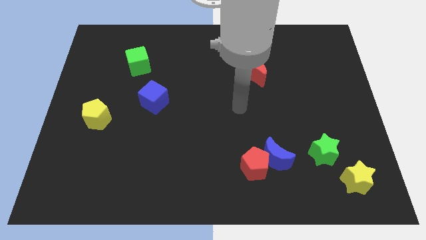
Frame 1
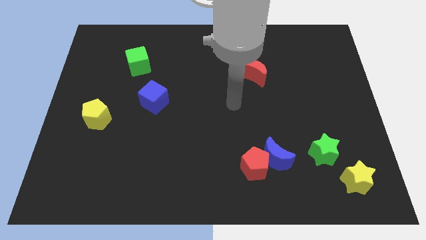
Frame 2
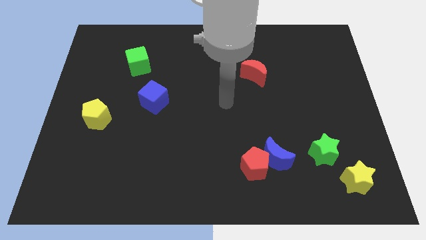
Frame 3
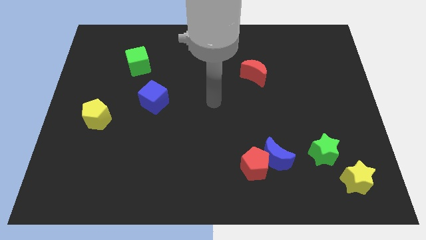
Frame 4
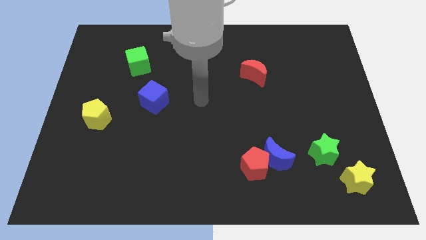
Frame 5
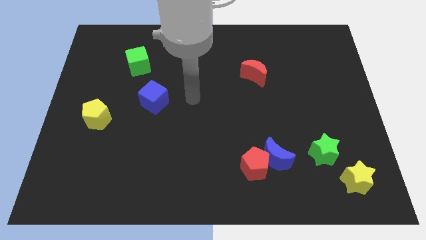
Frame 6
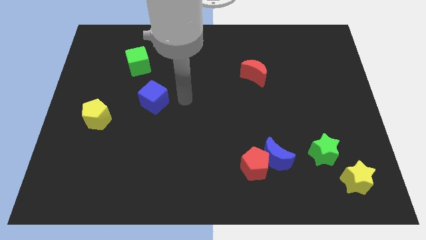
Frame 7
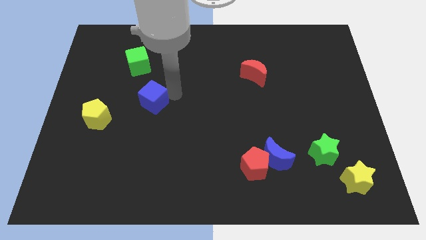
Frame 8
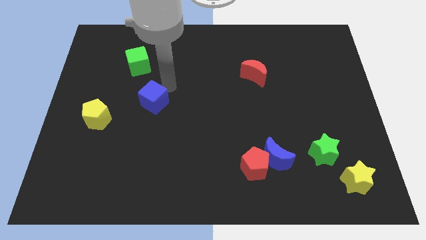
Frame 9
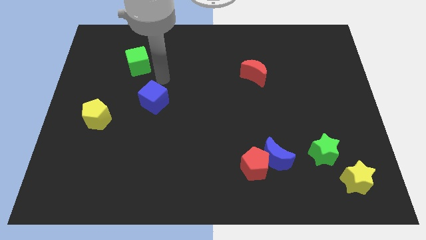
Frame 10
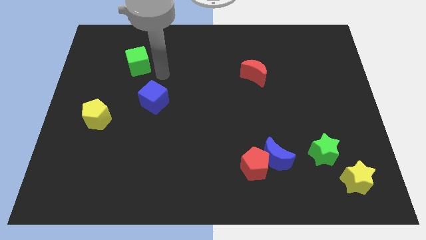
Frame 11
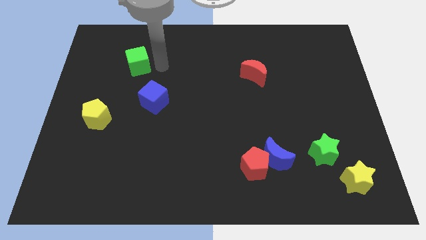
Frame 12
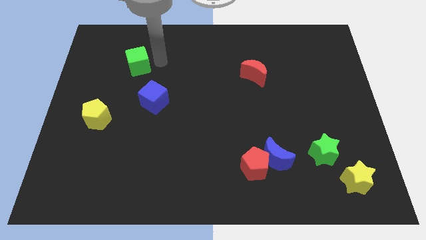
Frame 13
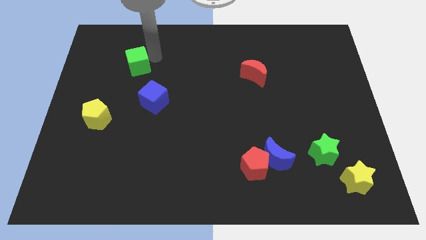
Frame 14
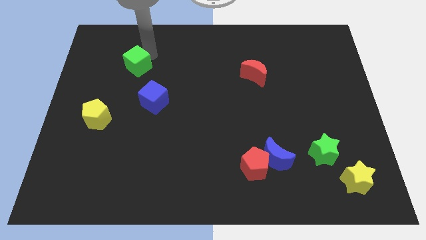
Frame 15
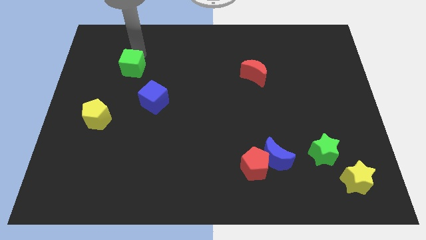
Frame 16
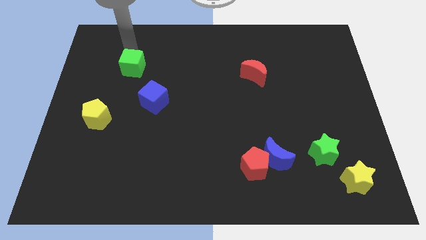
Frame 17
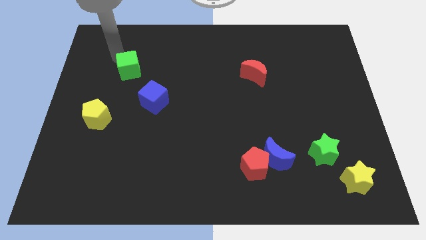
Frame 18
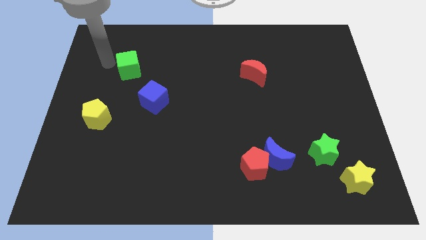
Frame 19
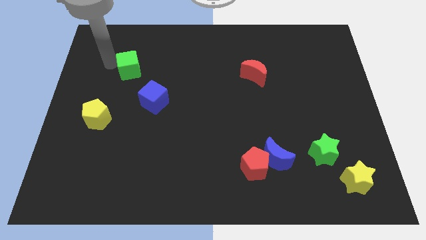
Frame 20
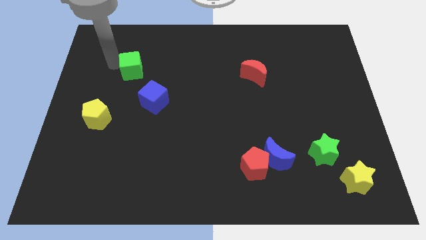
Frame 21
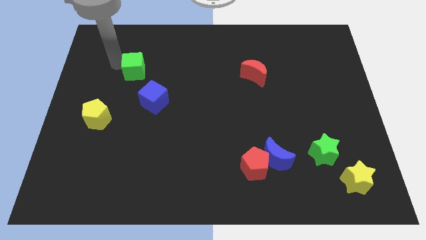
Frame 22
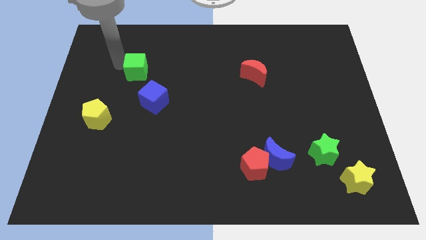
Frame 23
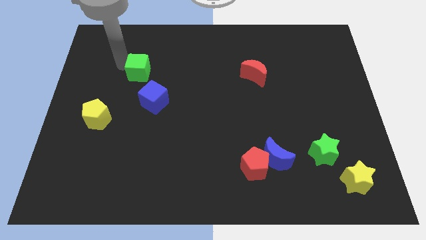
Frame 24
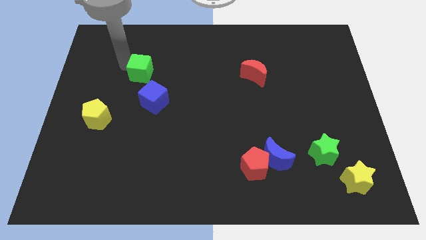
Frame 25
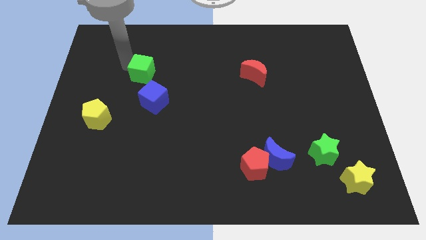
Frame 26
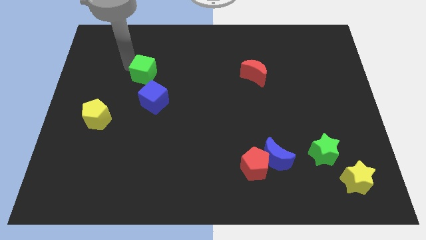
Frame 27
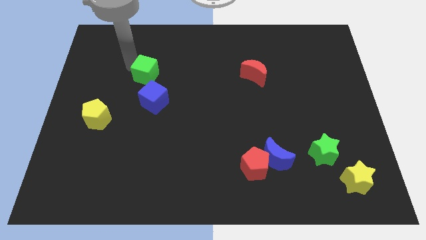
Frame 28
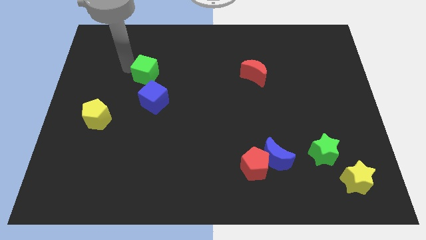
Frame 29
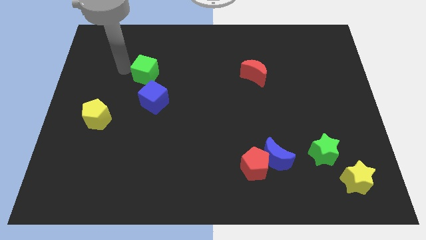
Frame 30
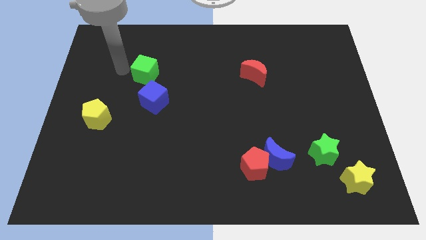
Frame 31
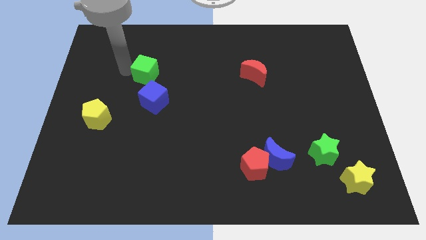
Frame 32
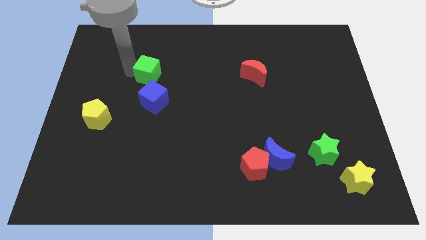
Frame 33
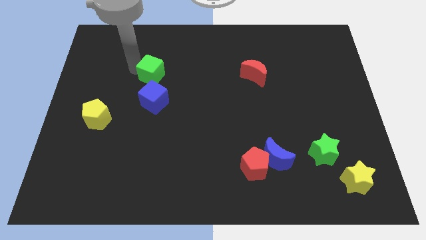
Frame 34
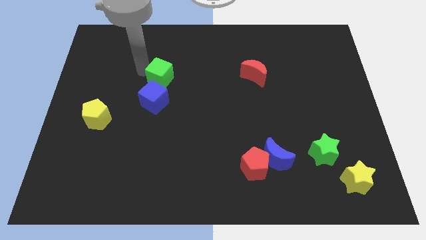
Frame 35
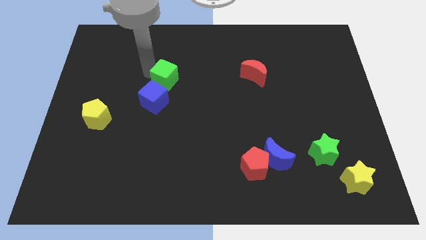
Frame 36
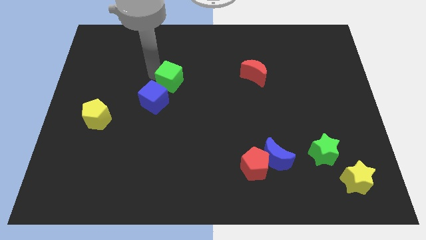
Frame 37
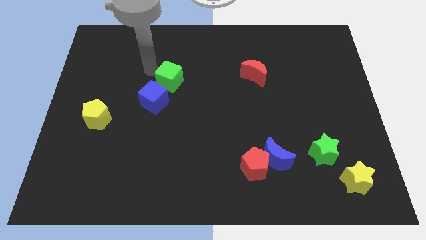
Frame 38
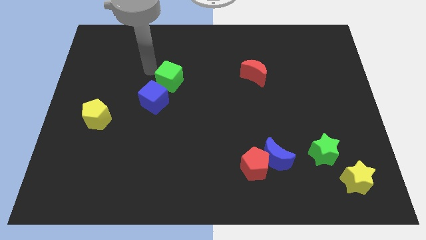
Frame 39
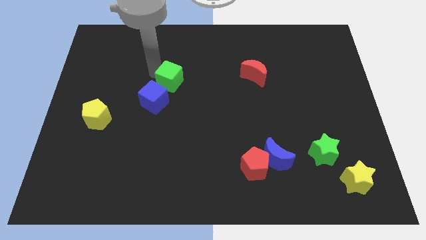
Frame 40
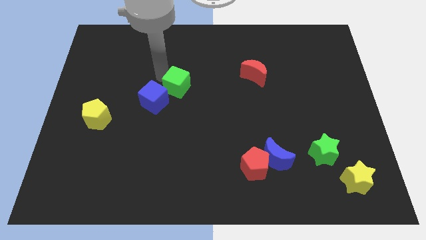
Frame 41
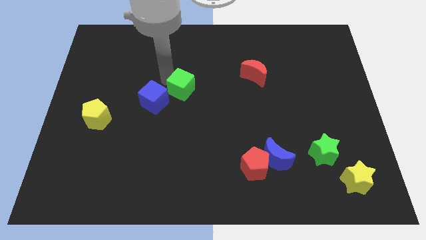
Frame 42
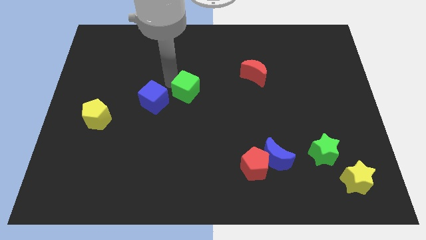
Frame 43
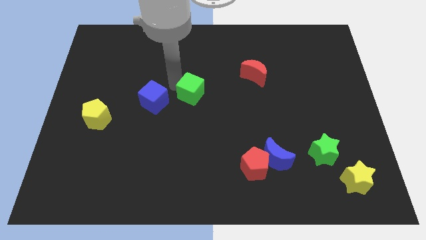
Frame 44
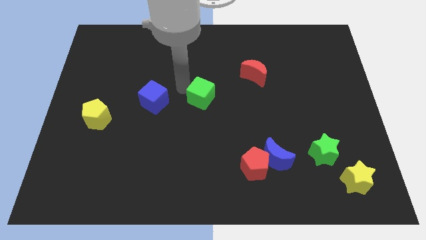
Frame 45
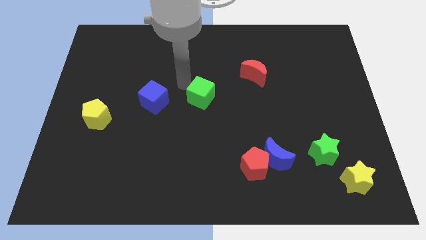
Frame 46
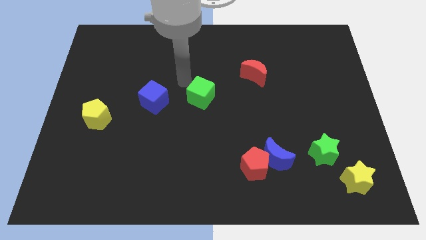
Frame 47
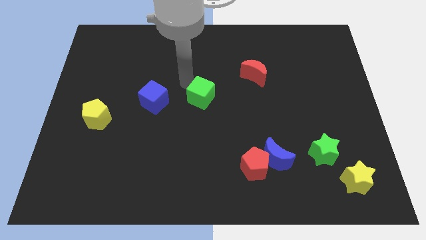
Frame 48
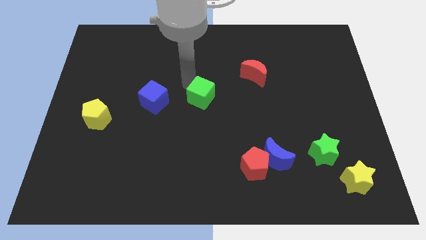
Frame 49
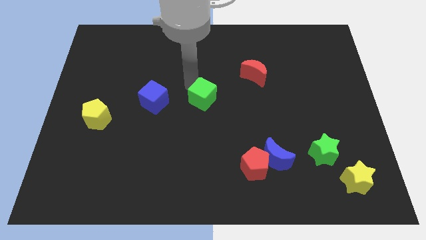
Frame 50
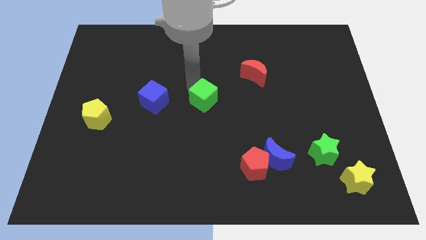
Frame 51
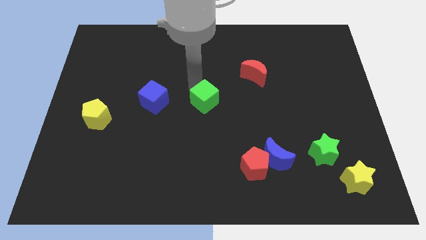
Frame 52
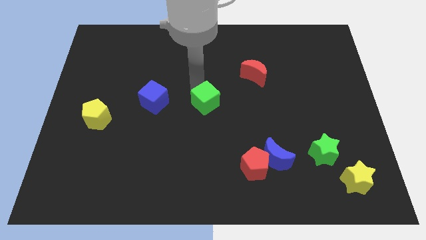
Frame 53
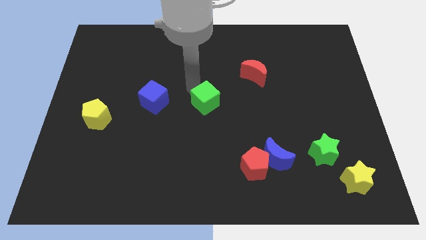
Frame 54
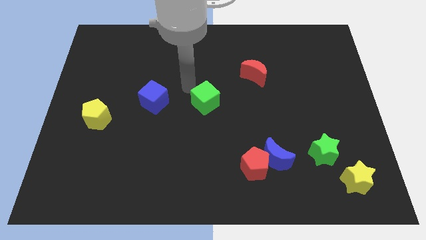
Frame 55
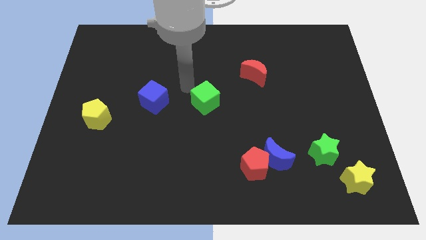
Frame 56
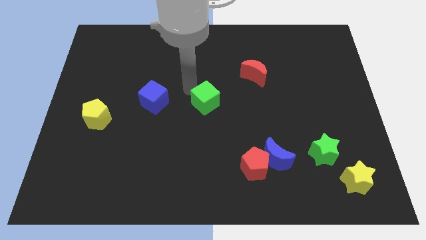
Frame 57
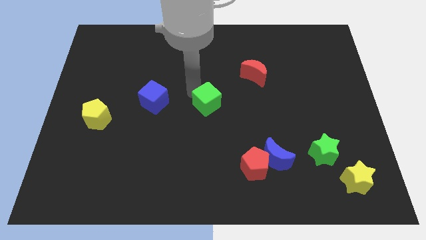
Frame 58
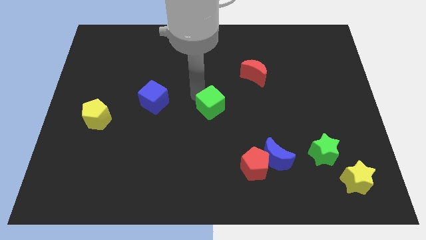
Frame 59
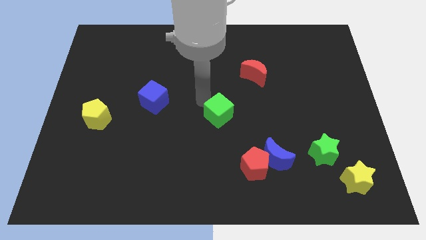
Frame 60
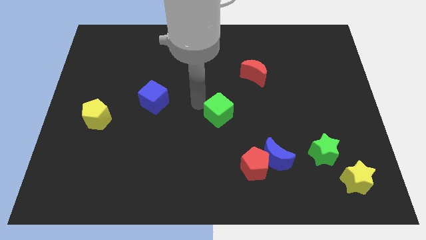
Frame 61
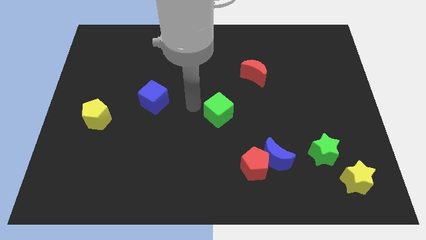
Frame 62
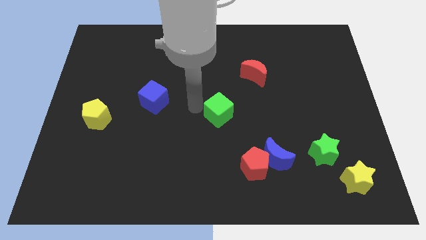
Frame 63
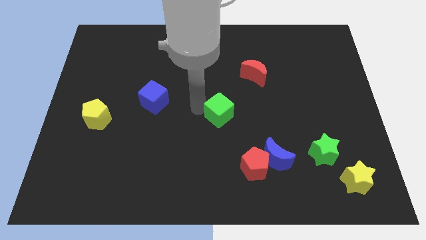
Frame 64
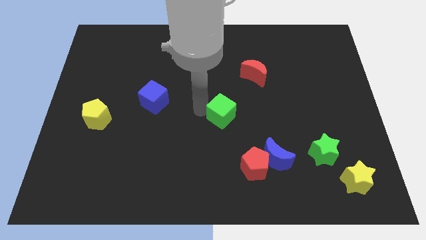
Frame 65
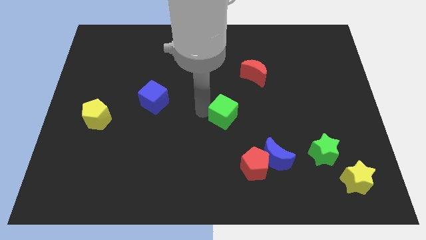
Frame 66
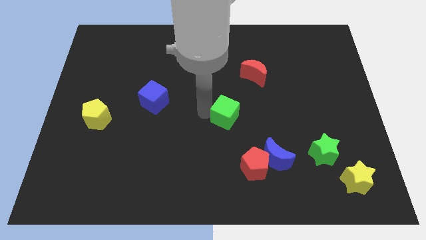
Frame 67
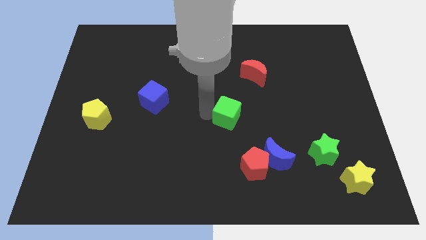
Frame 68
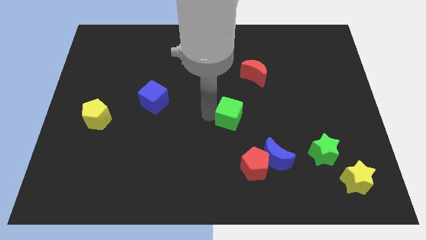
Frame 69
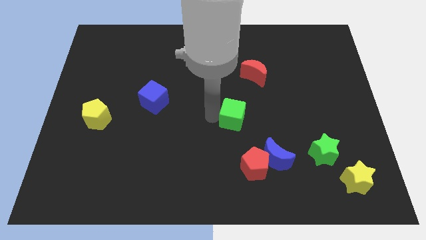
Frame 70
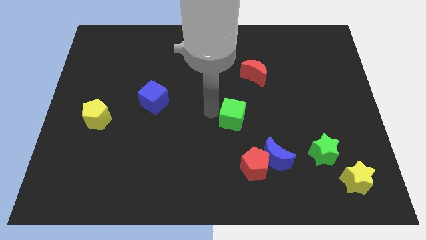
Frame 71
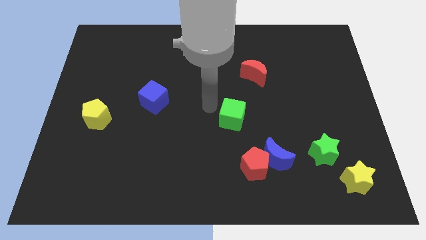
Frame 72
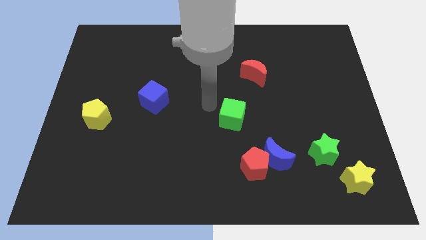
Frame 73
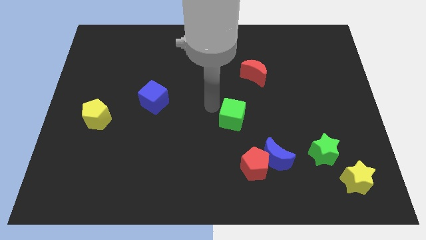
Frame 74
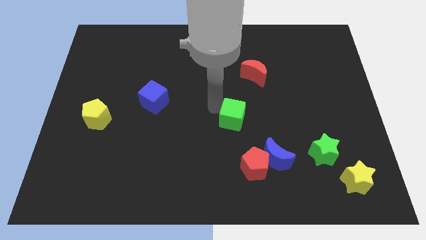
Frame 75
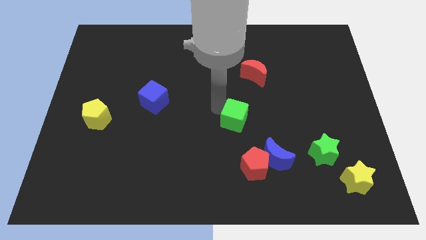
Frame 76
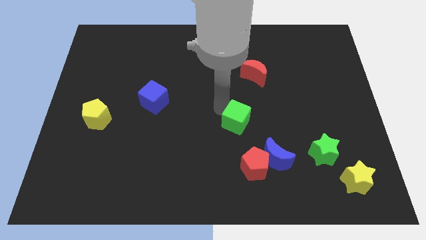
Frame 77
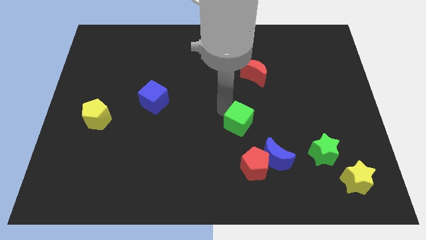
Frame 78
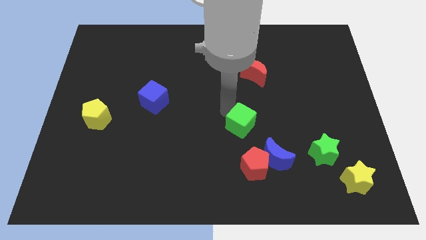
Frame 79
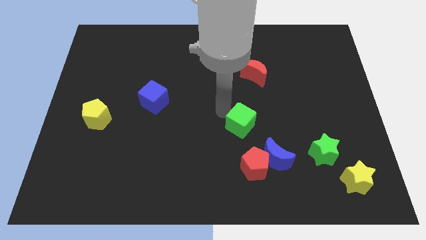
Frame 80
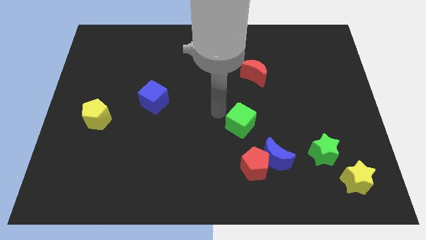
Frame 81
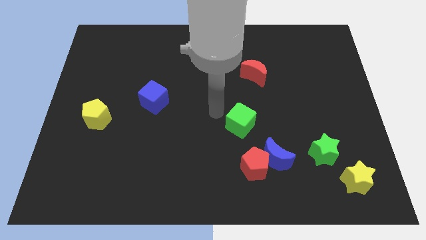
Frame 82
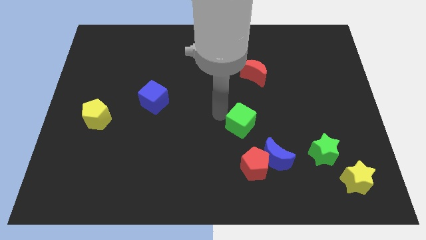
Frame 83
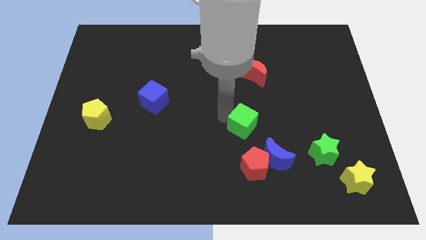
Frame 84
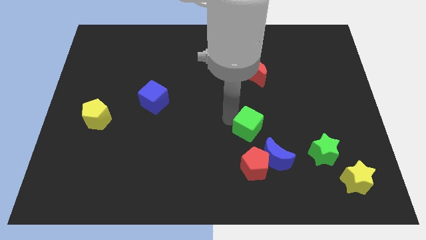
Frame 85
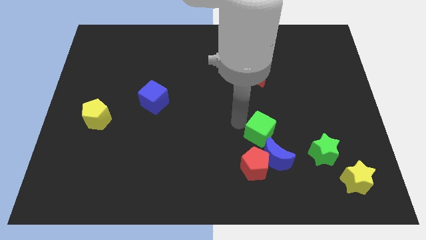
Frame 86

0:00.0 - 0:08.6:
move the green cube to the top right of the red pentagon
